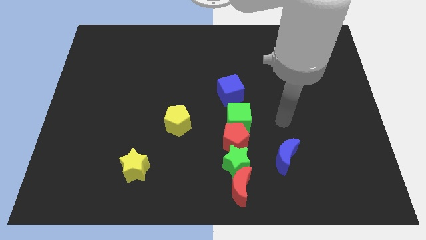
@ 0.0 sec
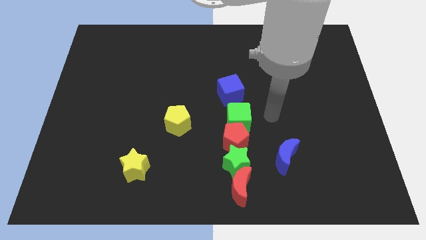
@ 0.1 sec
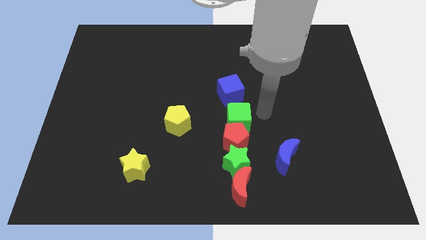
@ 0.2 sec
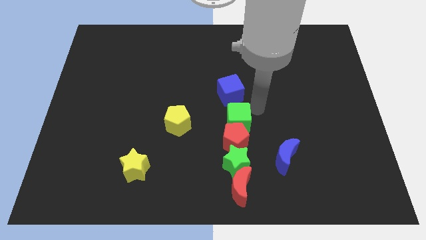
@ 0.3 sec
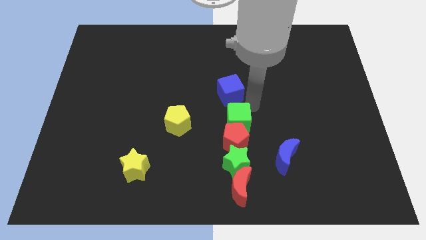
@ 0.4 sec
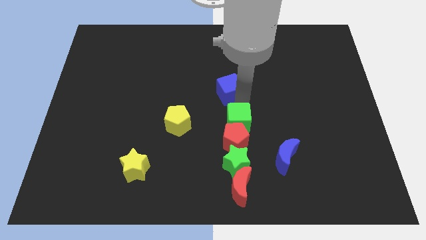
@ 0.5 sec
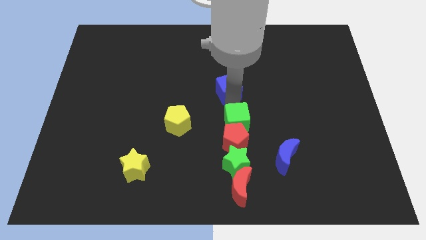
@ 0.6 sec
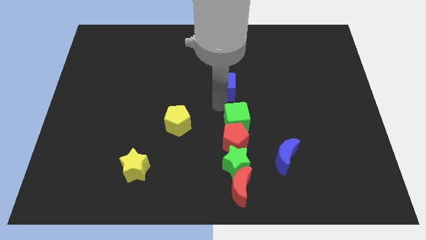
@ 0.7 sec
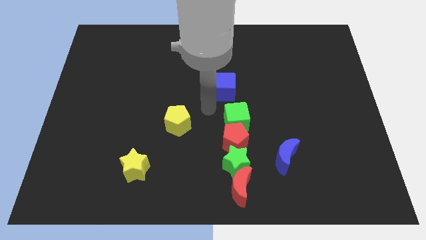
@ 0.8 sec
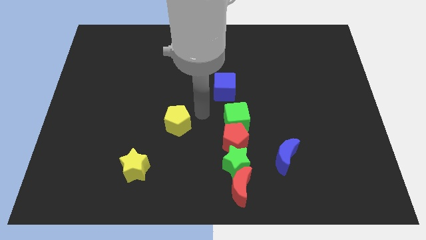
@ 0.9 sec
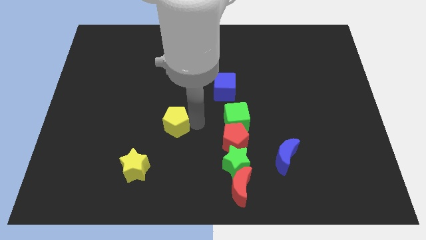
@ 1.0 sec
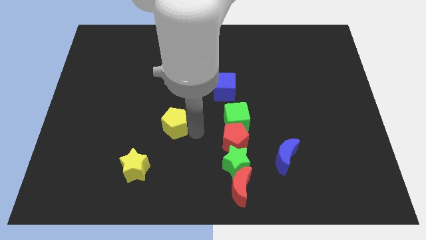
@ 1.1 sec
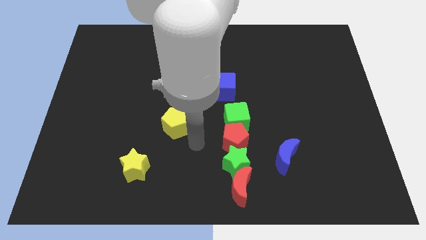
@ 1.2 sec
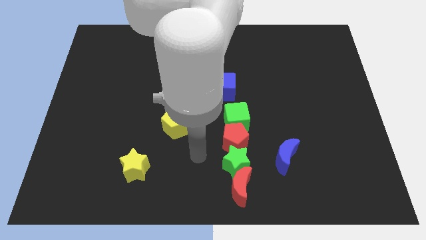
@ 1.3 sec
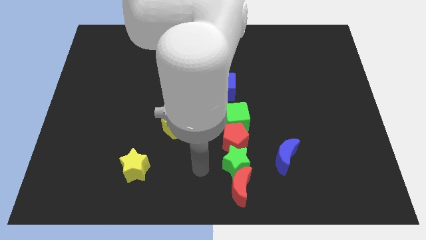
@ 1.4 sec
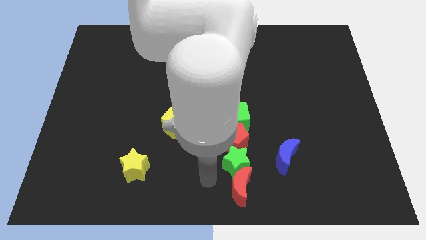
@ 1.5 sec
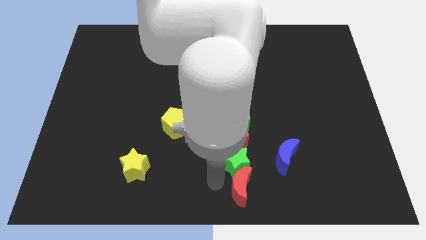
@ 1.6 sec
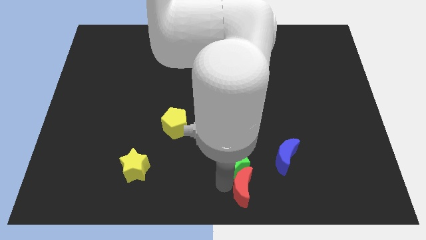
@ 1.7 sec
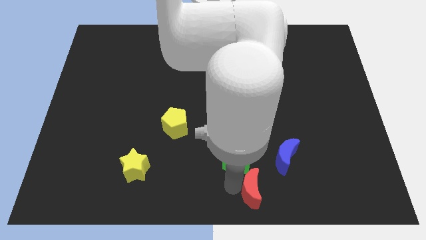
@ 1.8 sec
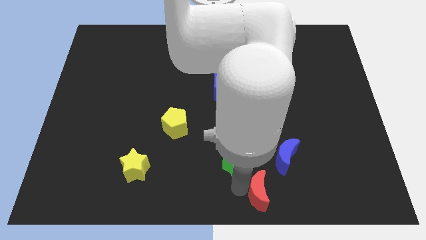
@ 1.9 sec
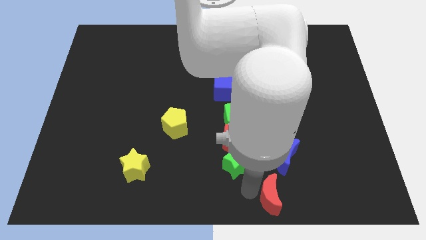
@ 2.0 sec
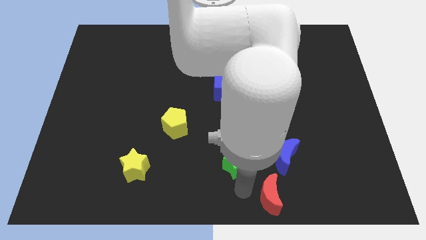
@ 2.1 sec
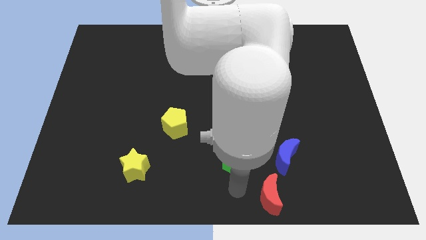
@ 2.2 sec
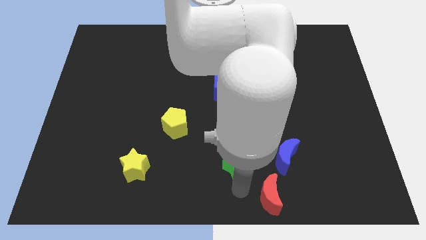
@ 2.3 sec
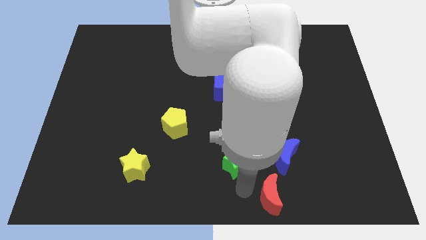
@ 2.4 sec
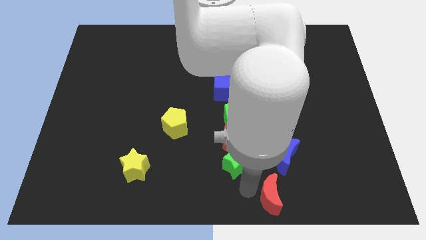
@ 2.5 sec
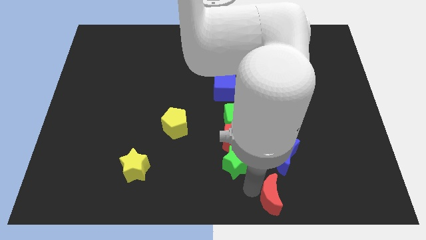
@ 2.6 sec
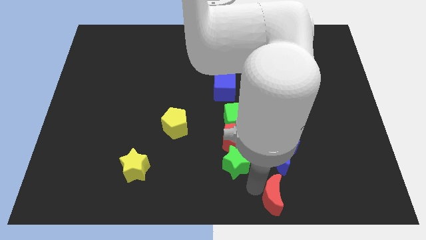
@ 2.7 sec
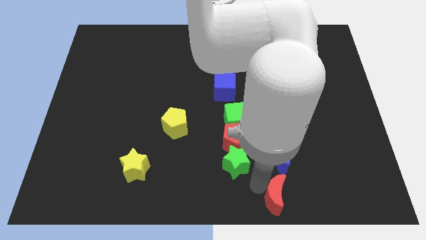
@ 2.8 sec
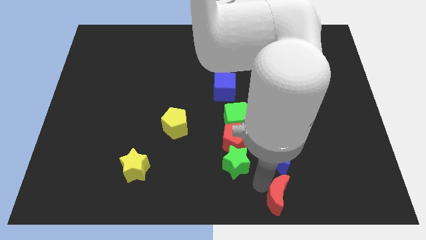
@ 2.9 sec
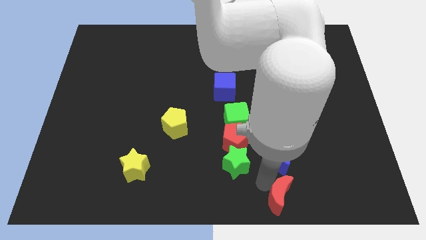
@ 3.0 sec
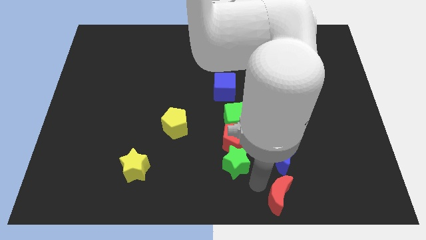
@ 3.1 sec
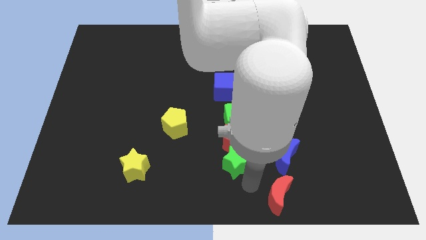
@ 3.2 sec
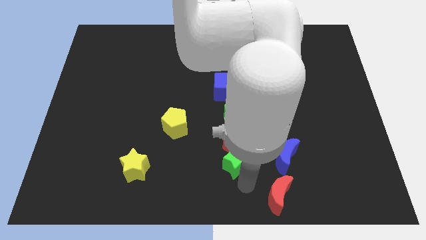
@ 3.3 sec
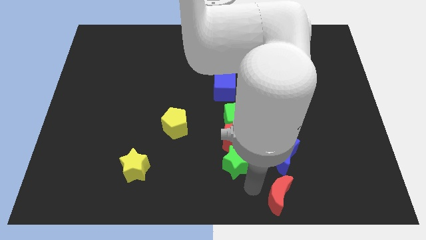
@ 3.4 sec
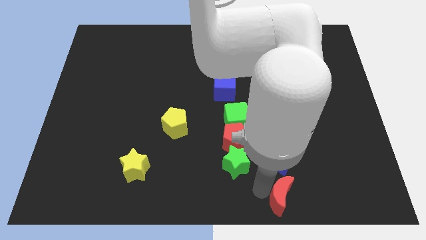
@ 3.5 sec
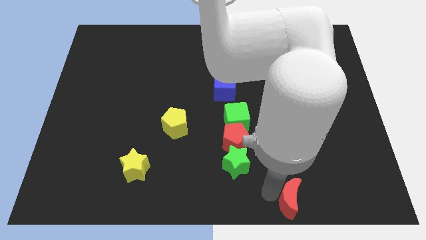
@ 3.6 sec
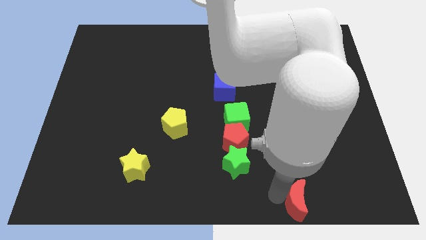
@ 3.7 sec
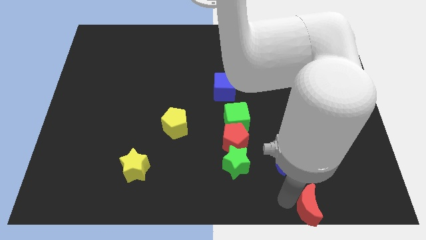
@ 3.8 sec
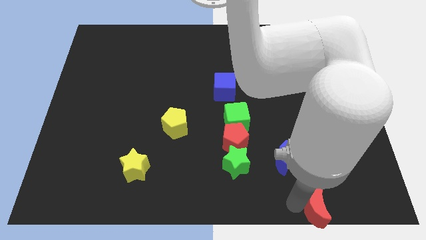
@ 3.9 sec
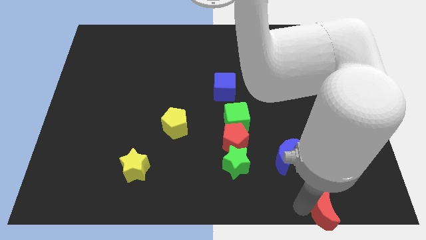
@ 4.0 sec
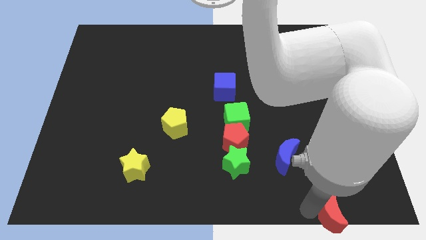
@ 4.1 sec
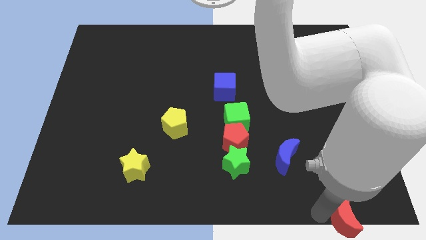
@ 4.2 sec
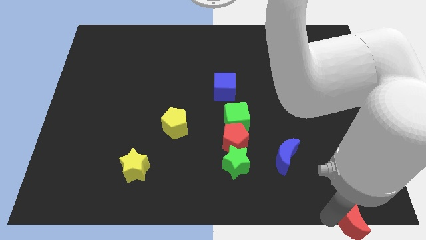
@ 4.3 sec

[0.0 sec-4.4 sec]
put the red moon to the bottom right corner

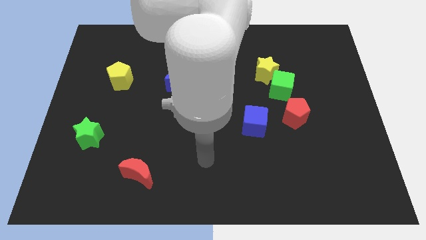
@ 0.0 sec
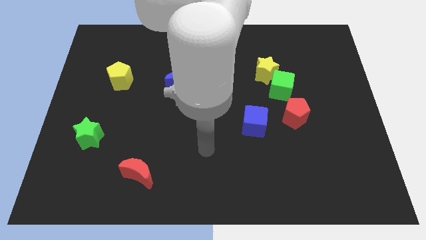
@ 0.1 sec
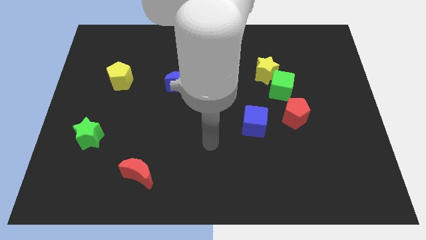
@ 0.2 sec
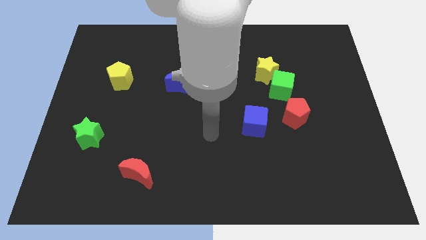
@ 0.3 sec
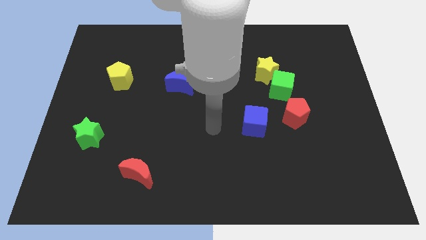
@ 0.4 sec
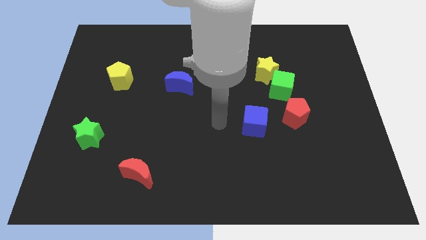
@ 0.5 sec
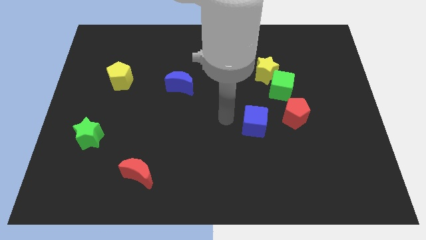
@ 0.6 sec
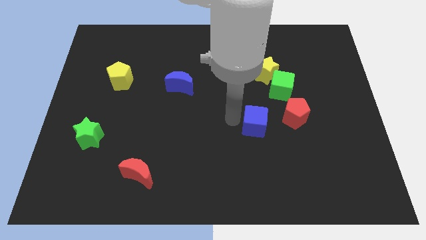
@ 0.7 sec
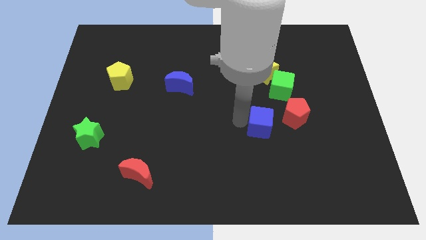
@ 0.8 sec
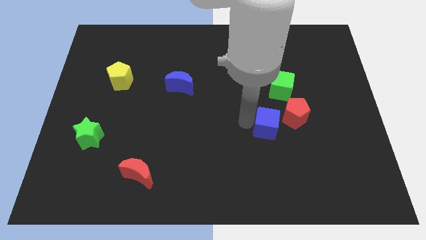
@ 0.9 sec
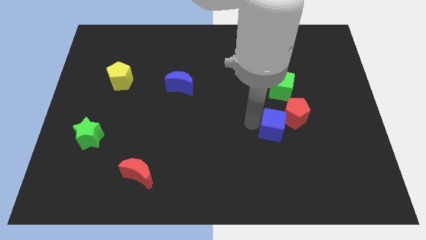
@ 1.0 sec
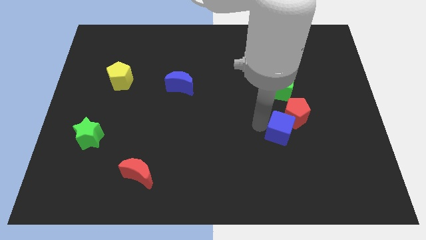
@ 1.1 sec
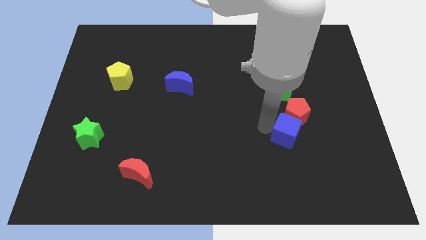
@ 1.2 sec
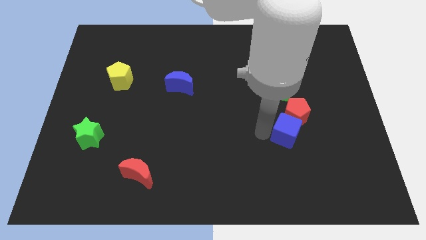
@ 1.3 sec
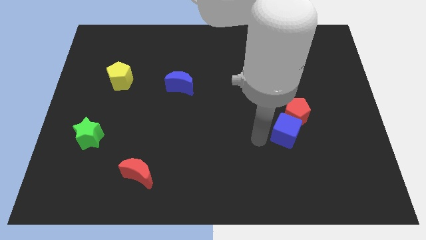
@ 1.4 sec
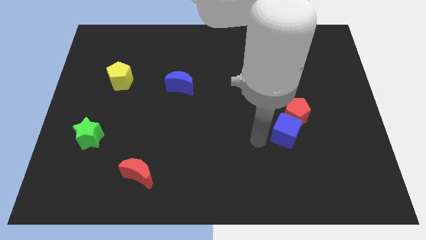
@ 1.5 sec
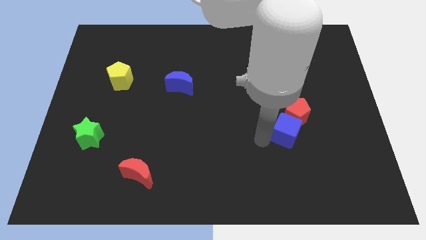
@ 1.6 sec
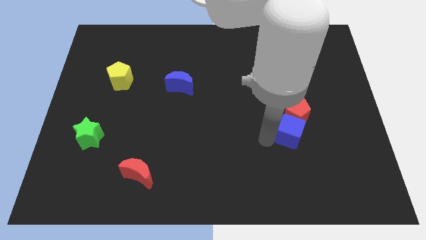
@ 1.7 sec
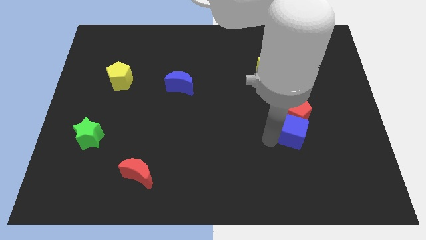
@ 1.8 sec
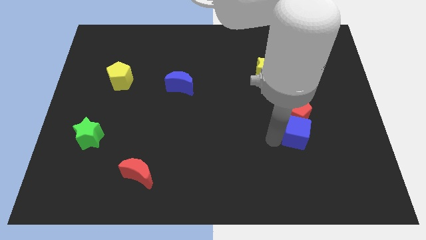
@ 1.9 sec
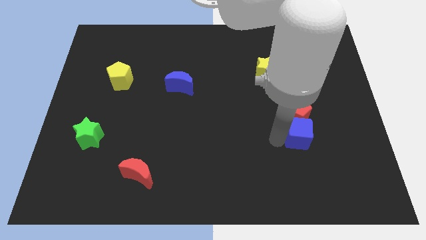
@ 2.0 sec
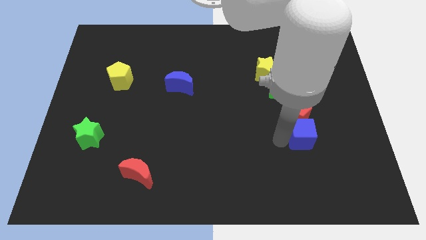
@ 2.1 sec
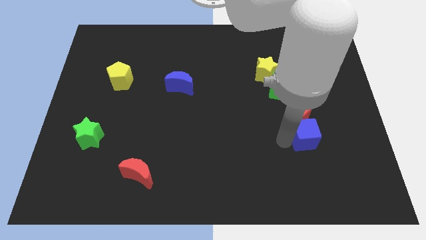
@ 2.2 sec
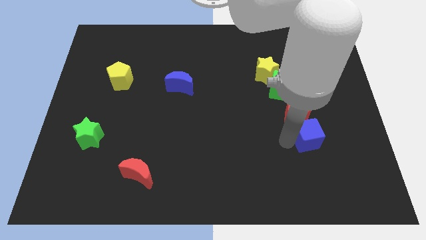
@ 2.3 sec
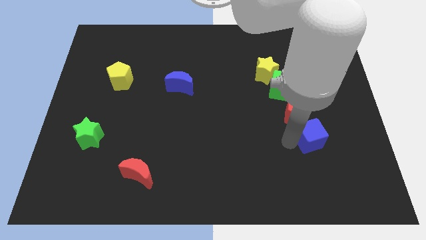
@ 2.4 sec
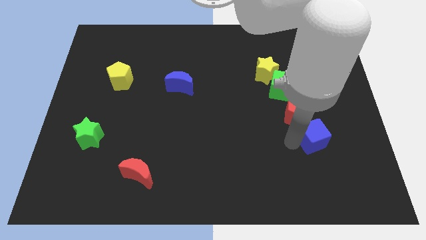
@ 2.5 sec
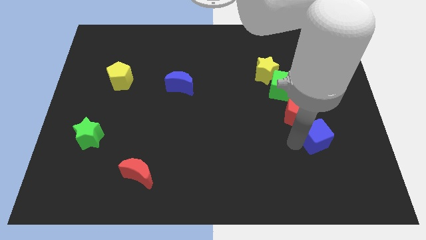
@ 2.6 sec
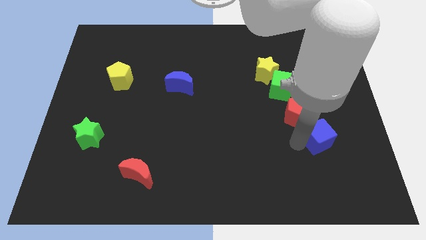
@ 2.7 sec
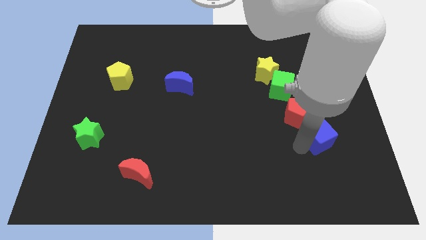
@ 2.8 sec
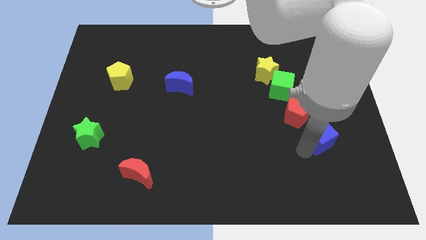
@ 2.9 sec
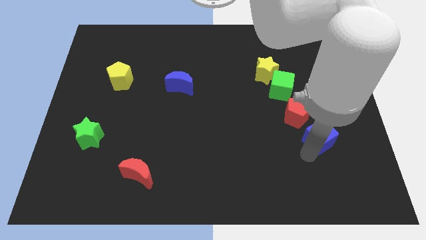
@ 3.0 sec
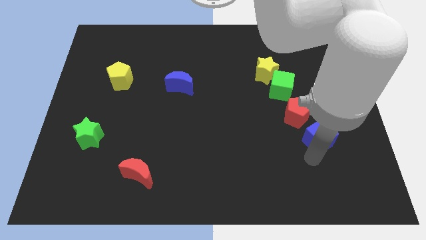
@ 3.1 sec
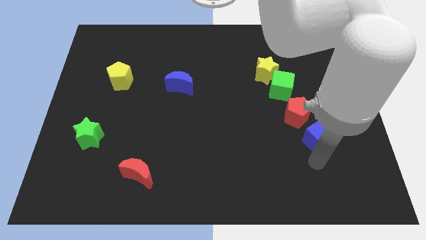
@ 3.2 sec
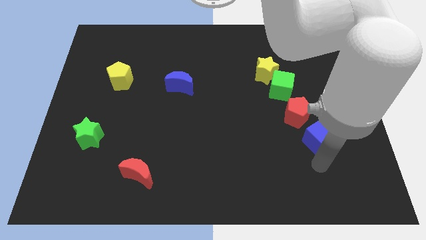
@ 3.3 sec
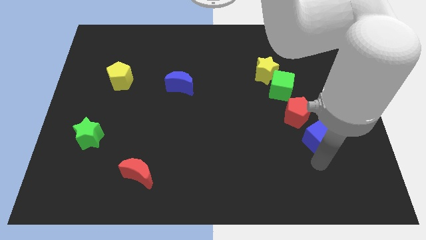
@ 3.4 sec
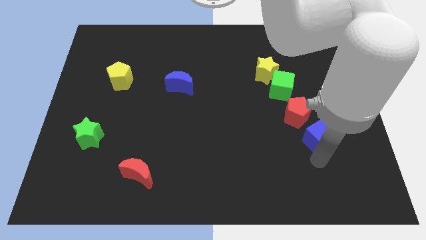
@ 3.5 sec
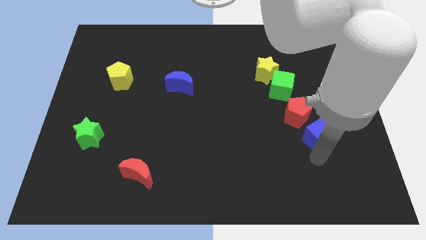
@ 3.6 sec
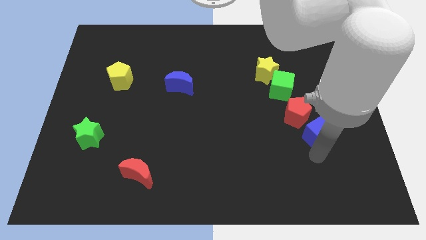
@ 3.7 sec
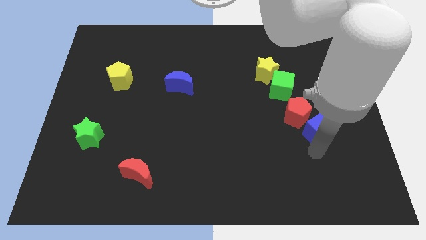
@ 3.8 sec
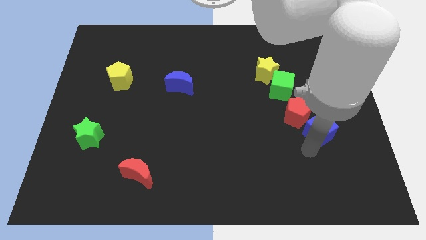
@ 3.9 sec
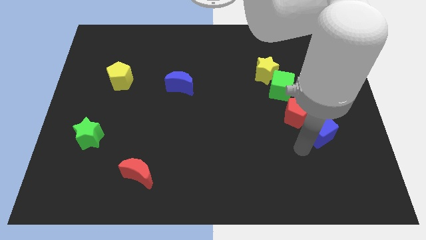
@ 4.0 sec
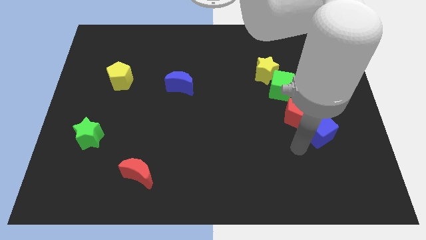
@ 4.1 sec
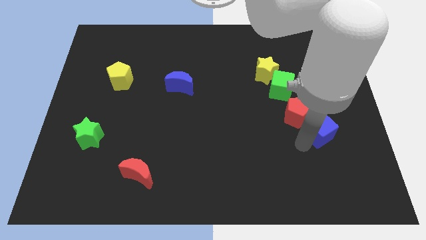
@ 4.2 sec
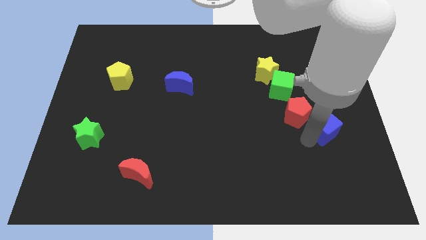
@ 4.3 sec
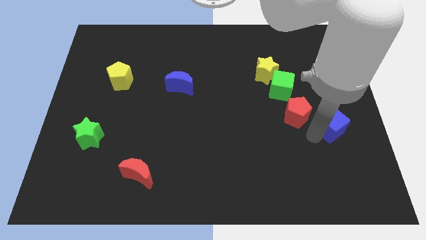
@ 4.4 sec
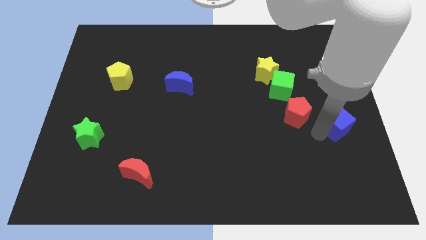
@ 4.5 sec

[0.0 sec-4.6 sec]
push the blue cube to the right side of the board
